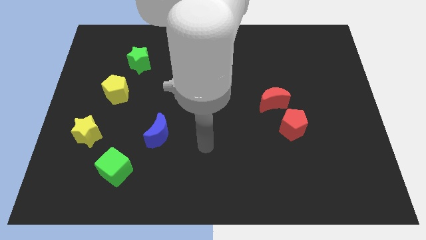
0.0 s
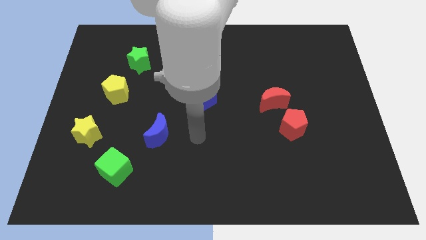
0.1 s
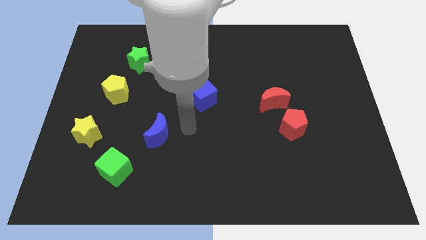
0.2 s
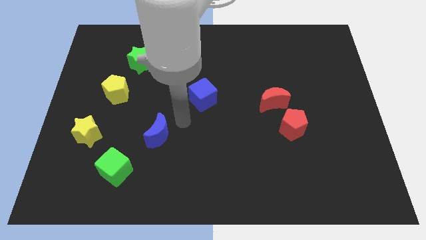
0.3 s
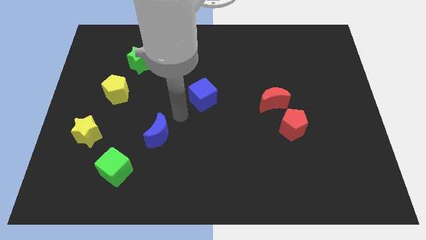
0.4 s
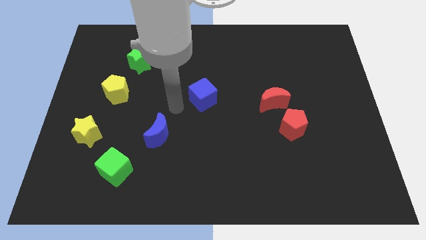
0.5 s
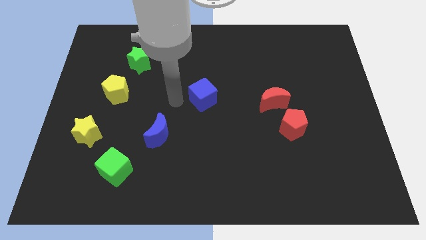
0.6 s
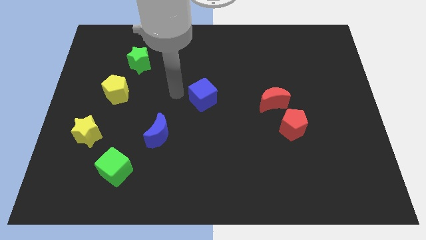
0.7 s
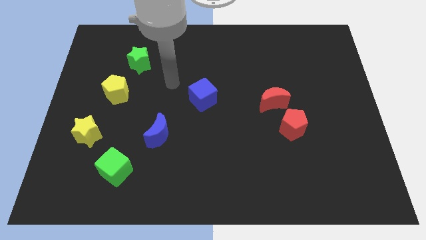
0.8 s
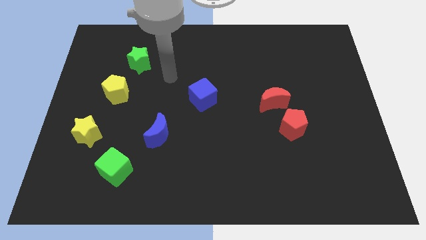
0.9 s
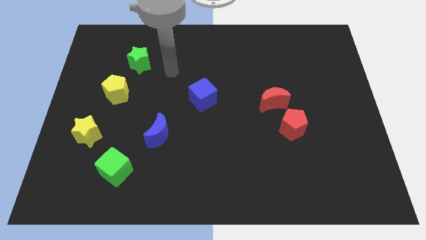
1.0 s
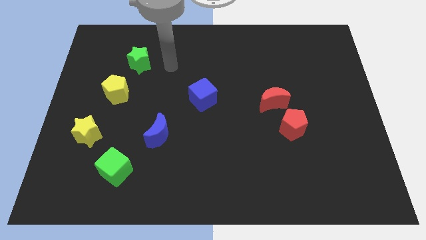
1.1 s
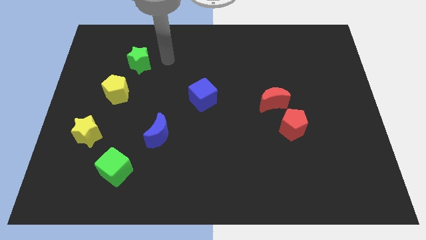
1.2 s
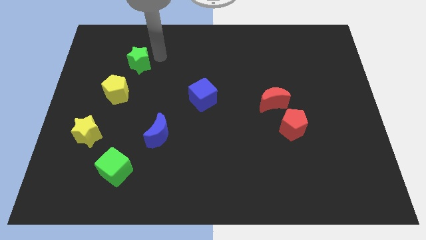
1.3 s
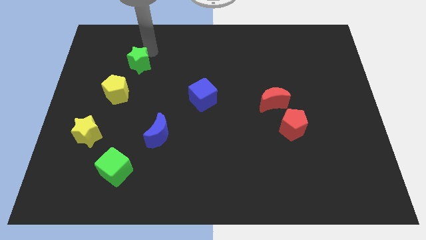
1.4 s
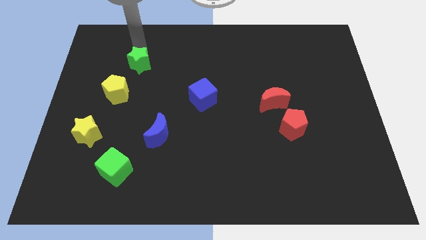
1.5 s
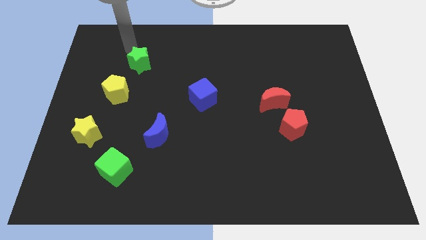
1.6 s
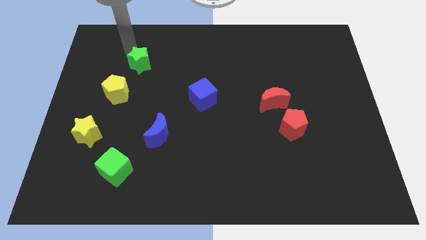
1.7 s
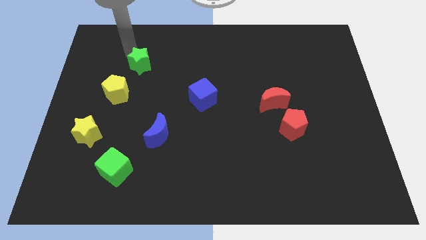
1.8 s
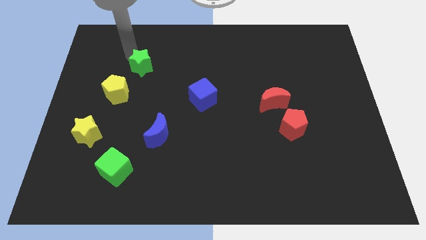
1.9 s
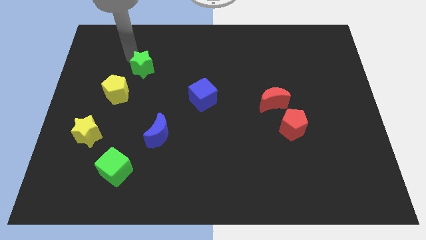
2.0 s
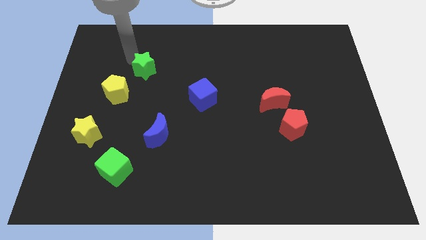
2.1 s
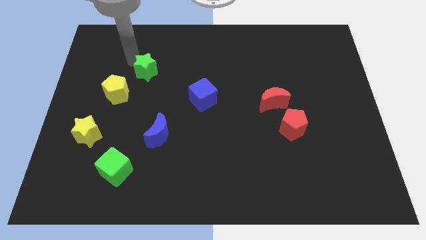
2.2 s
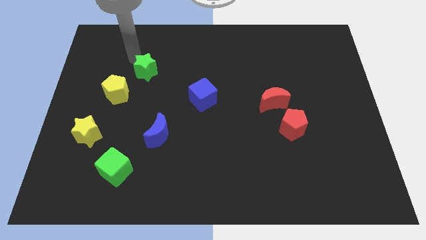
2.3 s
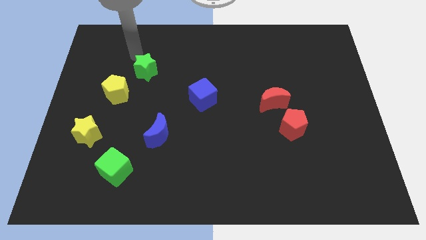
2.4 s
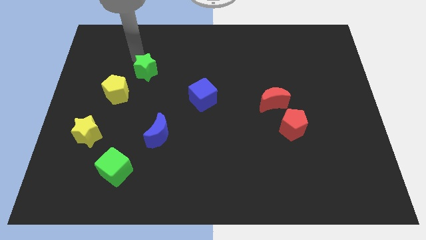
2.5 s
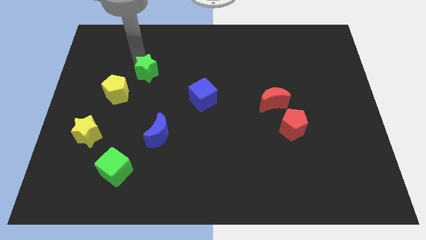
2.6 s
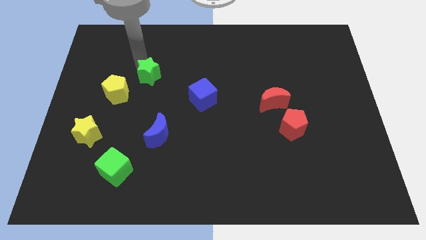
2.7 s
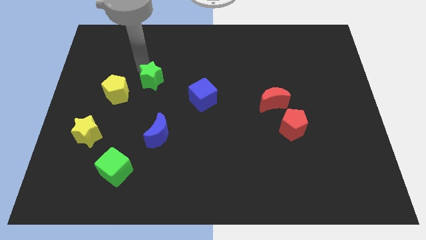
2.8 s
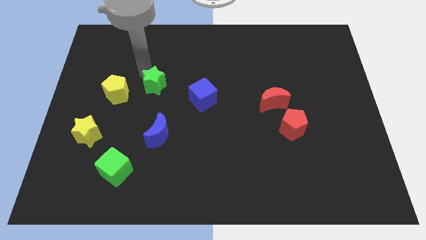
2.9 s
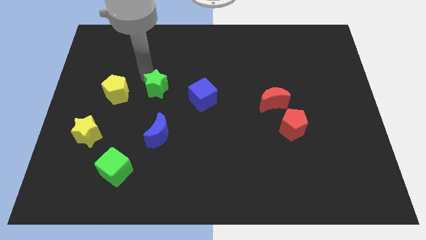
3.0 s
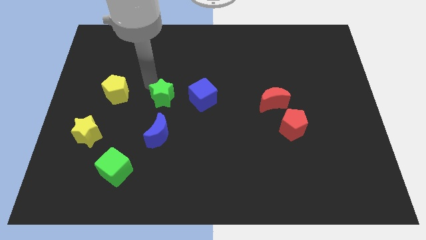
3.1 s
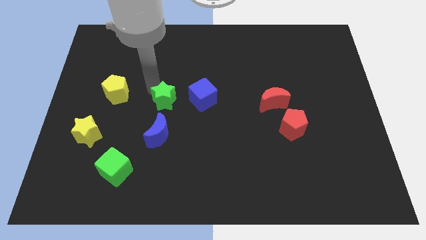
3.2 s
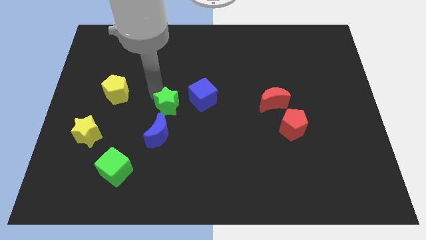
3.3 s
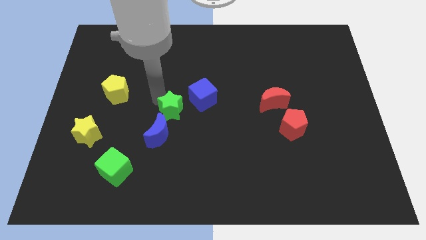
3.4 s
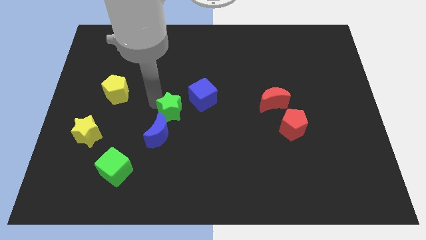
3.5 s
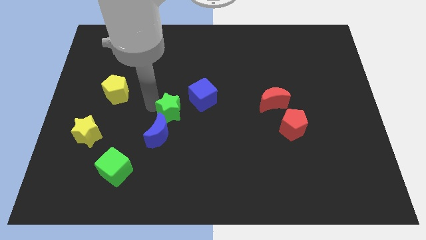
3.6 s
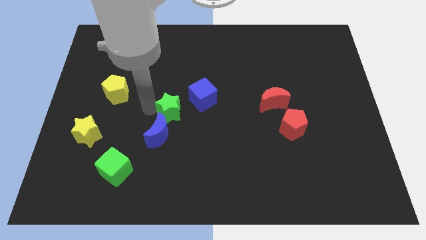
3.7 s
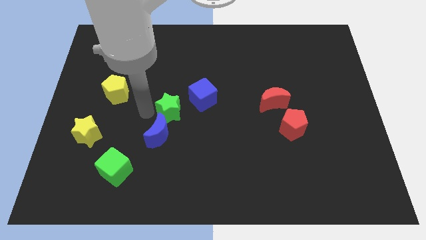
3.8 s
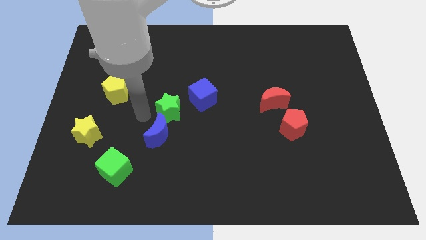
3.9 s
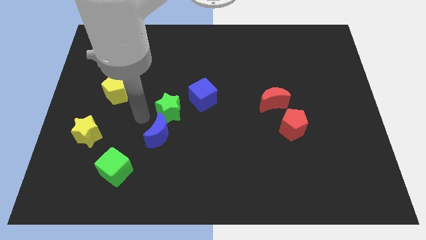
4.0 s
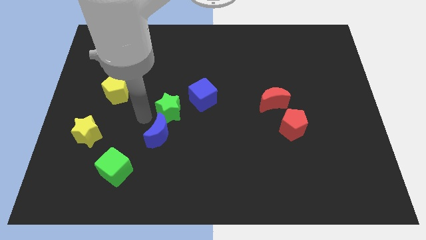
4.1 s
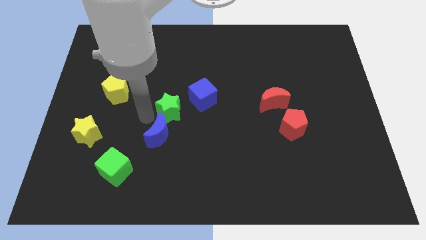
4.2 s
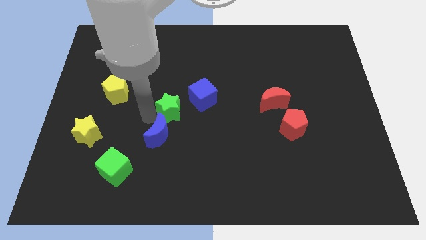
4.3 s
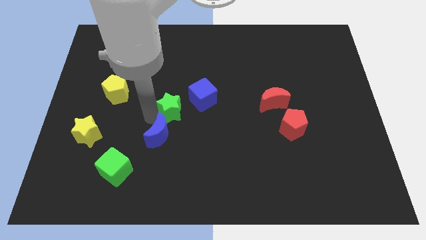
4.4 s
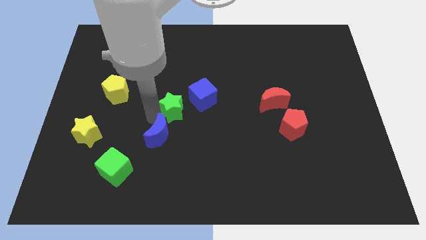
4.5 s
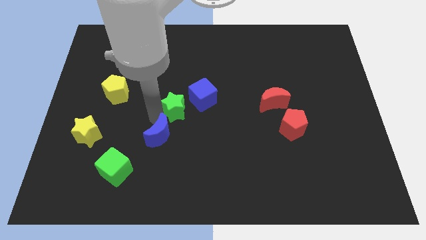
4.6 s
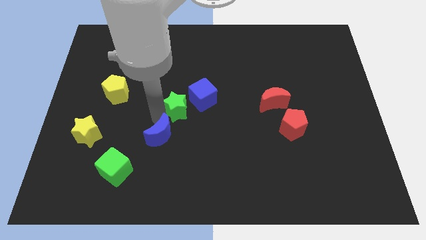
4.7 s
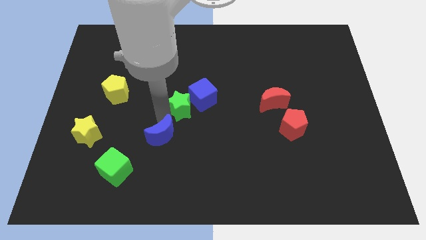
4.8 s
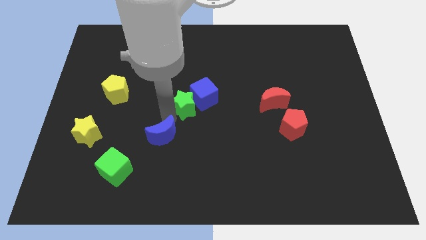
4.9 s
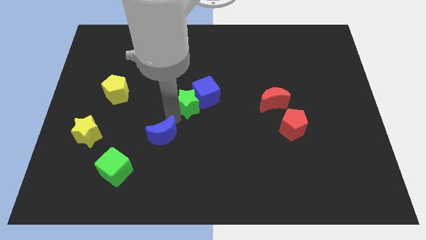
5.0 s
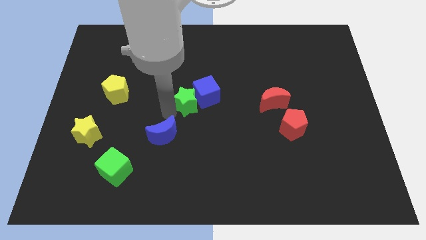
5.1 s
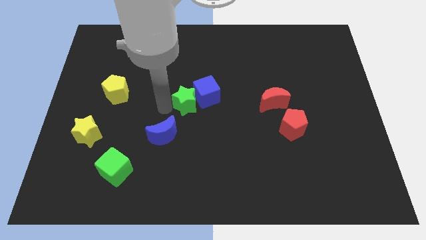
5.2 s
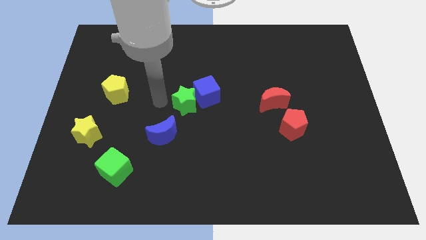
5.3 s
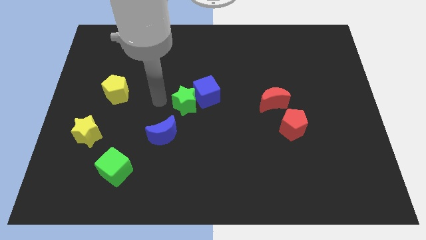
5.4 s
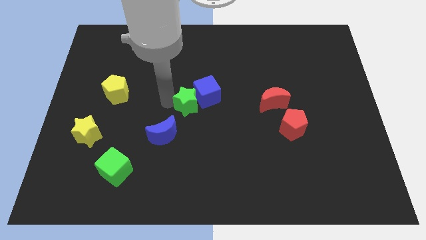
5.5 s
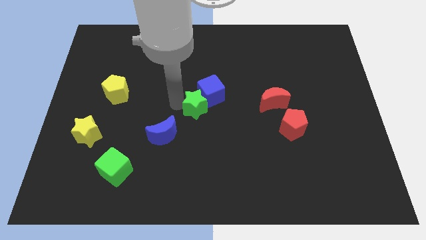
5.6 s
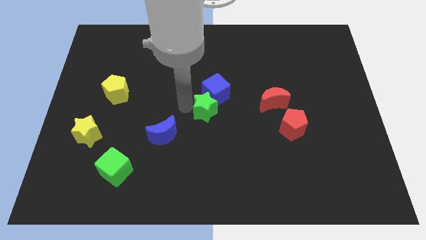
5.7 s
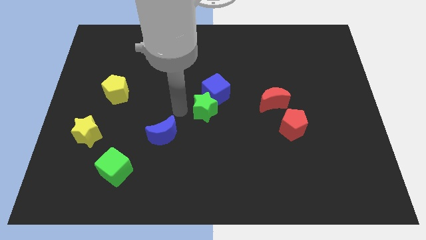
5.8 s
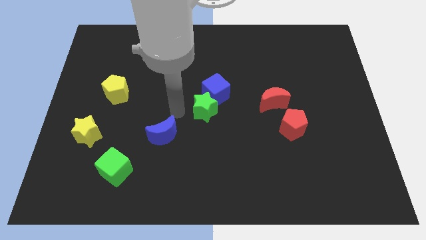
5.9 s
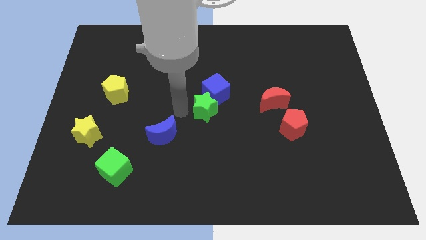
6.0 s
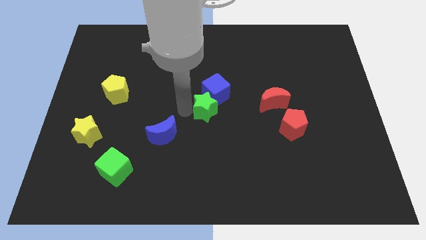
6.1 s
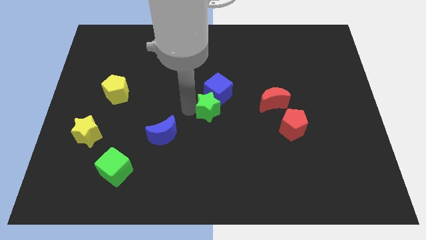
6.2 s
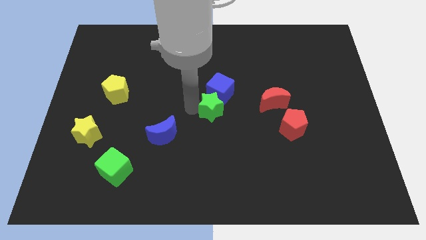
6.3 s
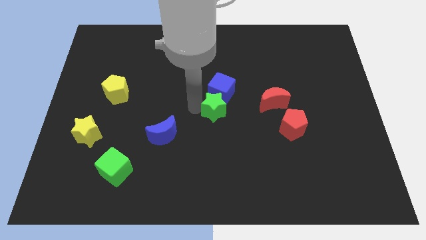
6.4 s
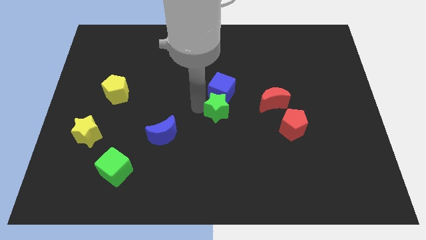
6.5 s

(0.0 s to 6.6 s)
move the green star diagonally down and to the right of the blue cube
